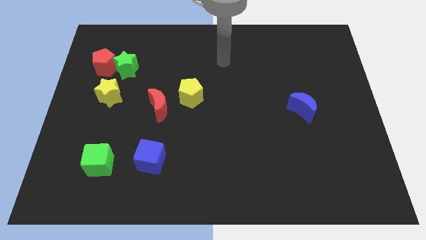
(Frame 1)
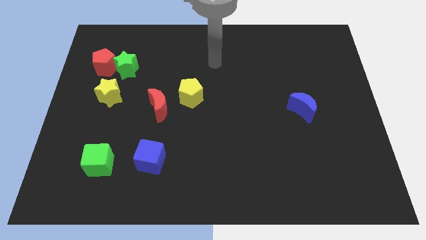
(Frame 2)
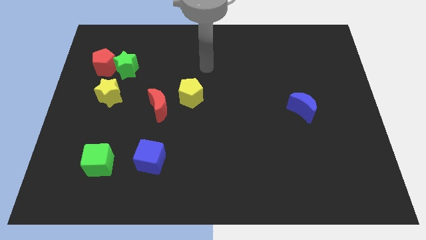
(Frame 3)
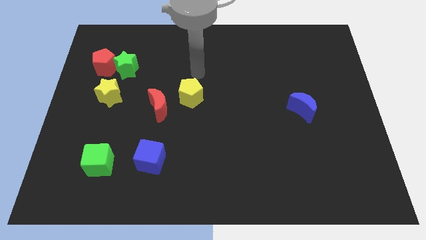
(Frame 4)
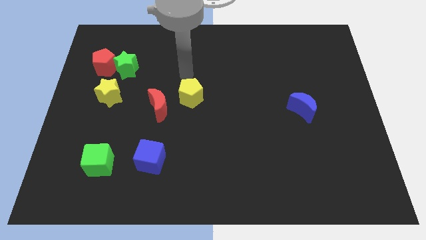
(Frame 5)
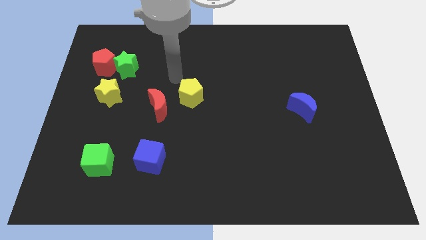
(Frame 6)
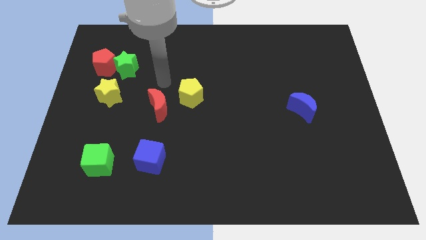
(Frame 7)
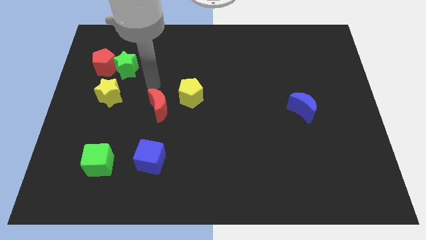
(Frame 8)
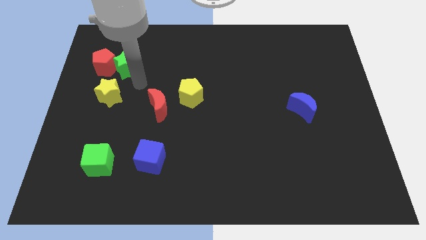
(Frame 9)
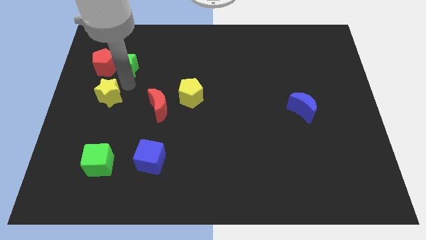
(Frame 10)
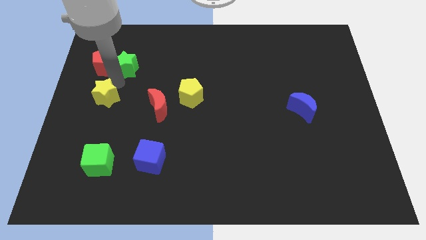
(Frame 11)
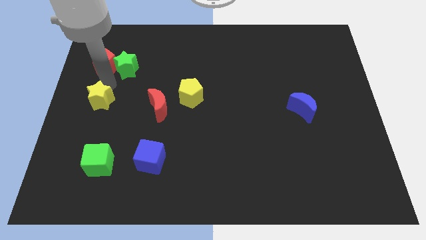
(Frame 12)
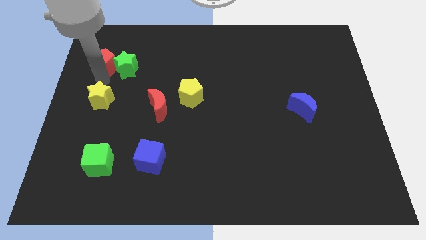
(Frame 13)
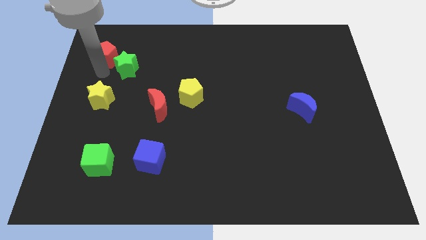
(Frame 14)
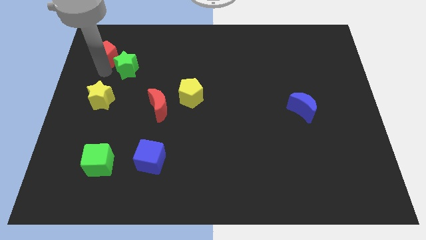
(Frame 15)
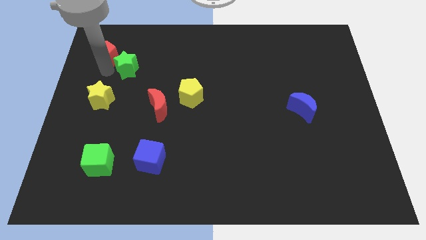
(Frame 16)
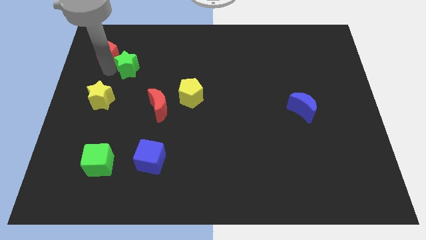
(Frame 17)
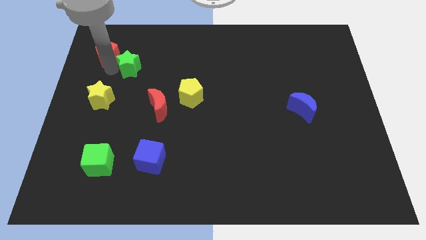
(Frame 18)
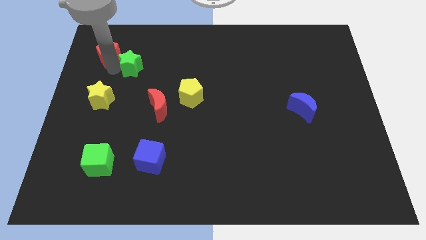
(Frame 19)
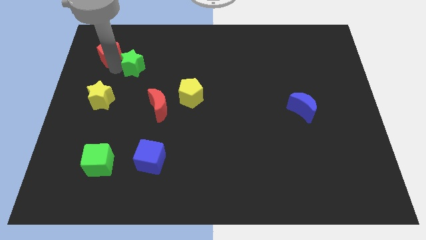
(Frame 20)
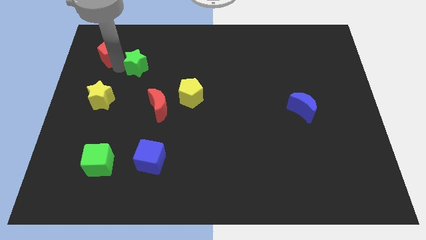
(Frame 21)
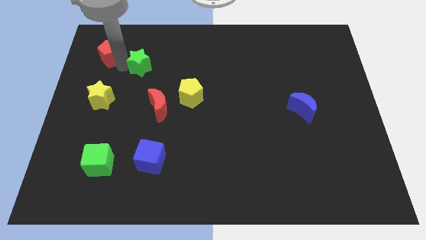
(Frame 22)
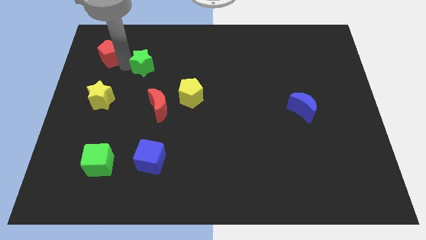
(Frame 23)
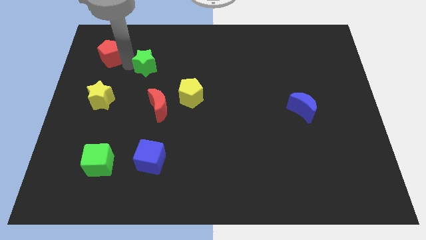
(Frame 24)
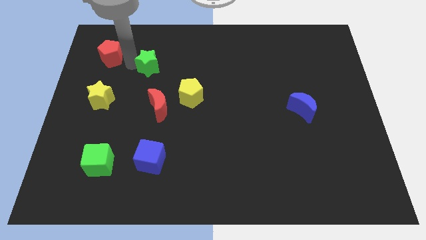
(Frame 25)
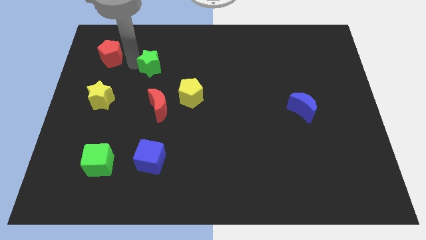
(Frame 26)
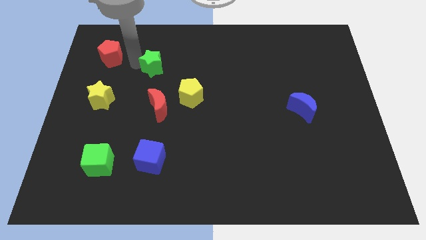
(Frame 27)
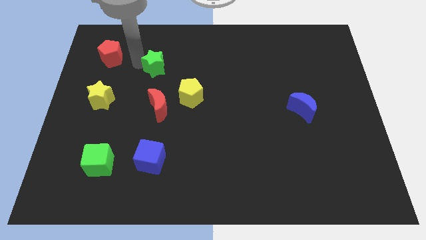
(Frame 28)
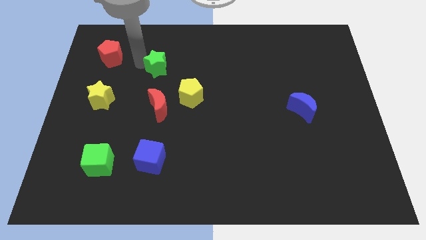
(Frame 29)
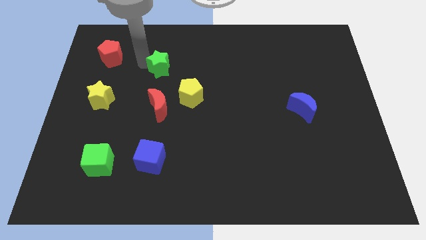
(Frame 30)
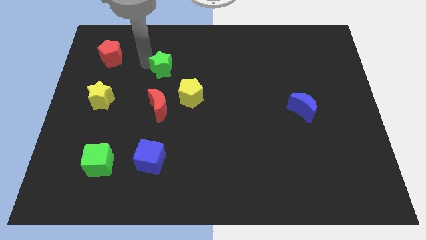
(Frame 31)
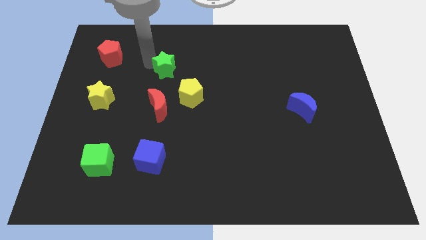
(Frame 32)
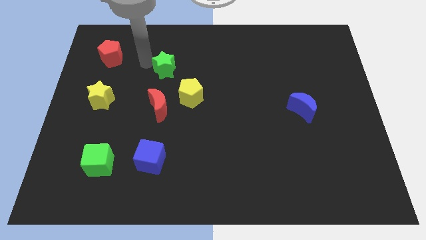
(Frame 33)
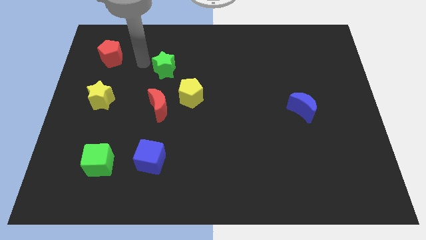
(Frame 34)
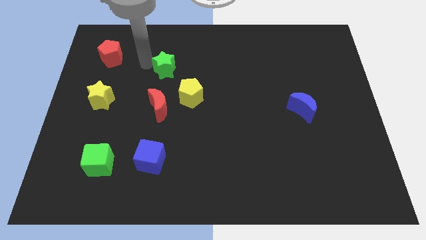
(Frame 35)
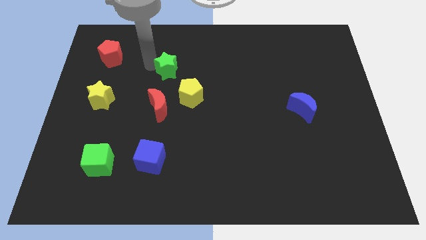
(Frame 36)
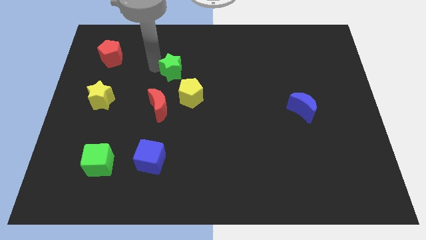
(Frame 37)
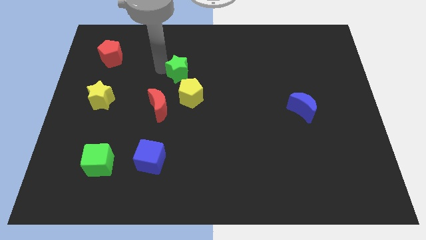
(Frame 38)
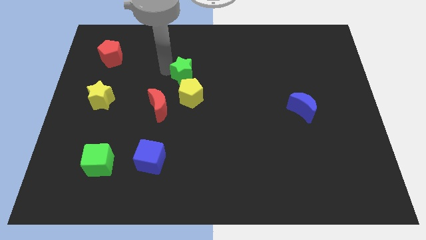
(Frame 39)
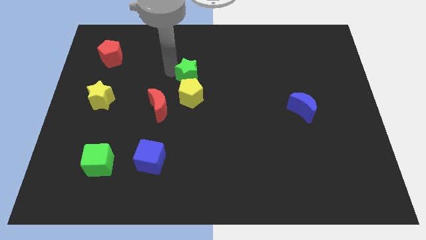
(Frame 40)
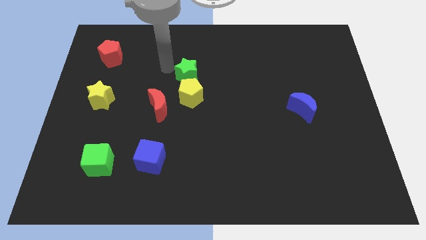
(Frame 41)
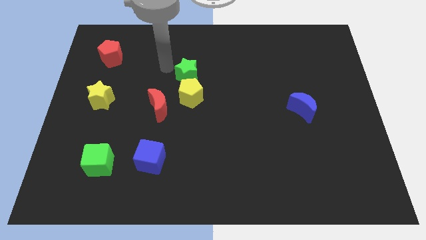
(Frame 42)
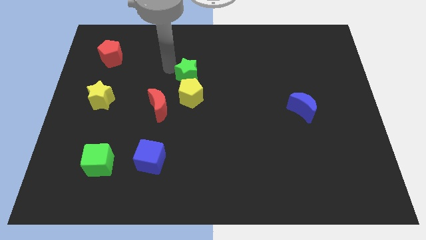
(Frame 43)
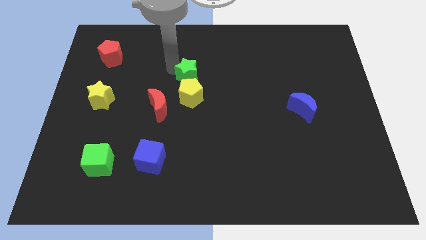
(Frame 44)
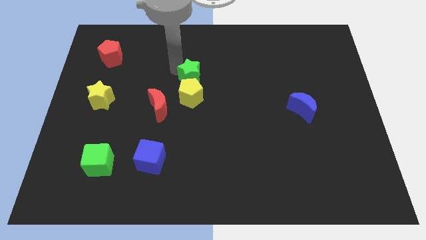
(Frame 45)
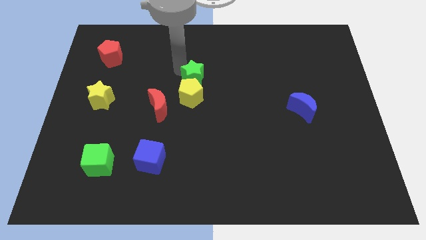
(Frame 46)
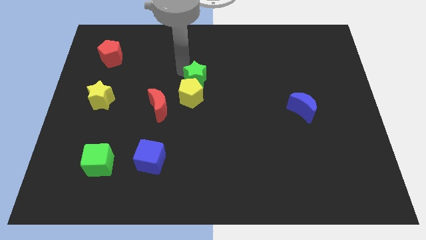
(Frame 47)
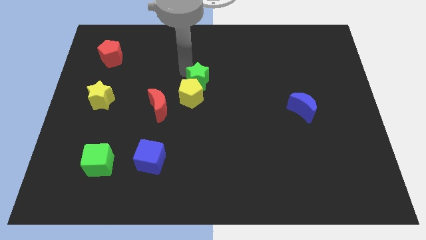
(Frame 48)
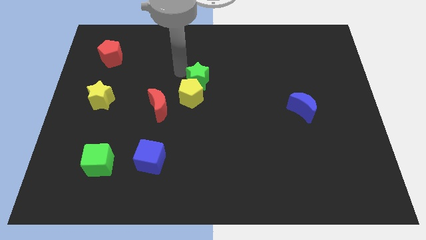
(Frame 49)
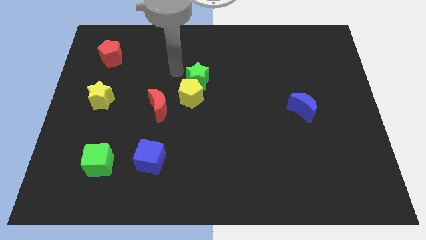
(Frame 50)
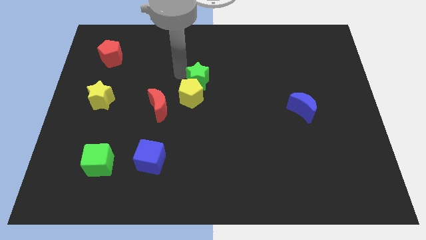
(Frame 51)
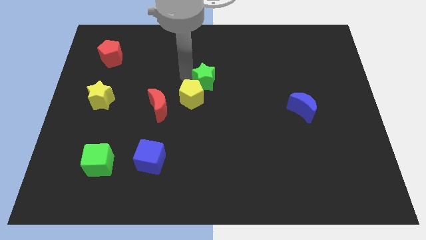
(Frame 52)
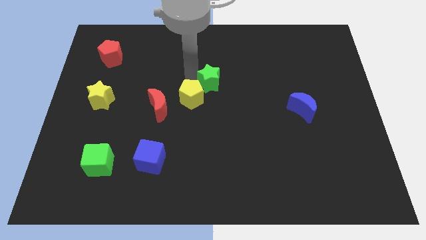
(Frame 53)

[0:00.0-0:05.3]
put the green star right of the yellow pentagon

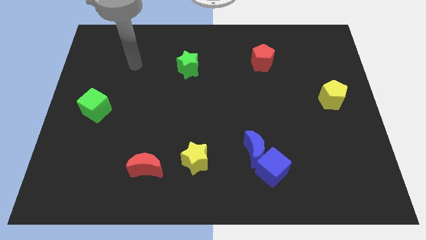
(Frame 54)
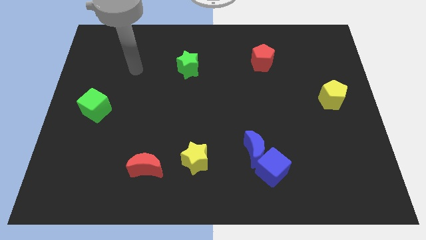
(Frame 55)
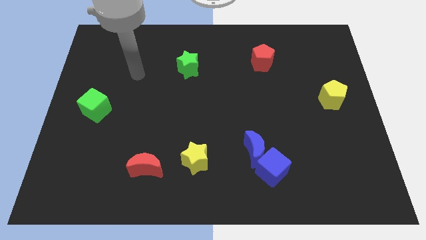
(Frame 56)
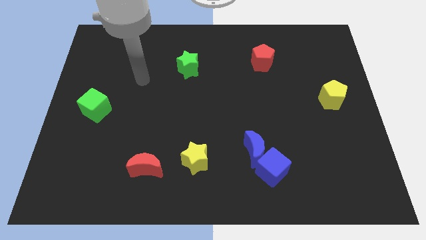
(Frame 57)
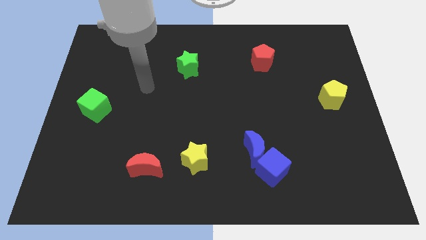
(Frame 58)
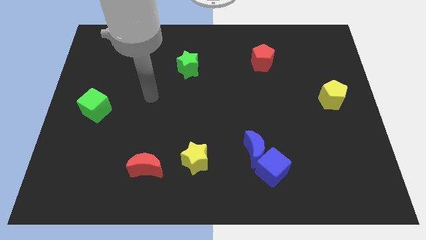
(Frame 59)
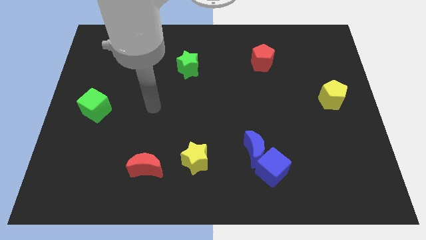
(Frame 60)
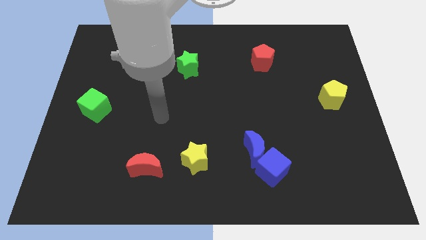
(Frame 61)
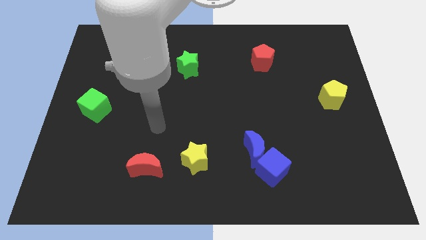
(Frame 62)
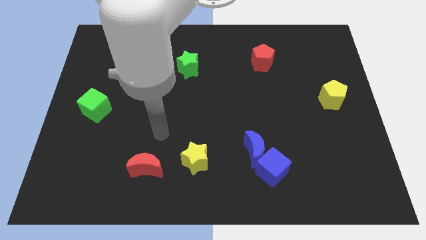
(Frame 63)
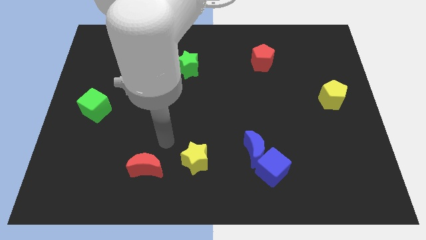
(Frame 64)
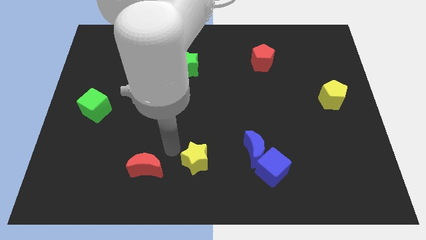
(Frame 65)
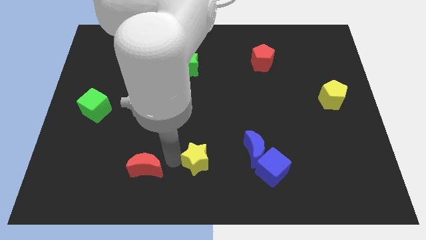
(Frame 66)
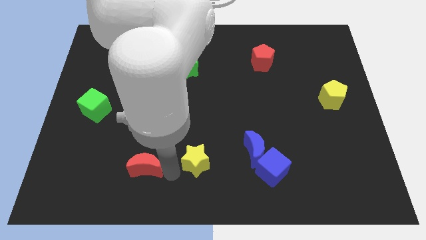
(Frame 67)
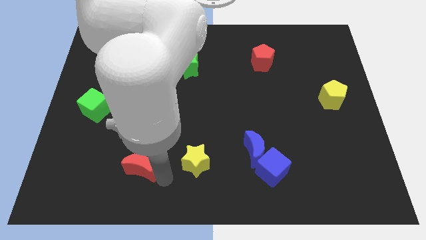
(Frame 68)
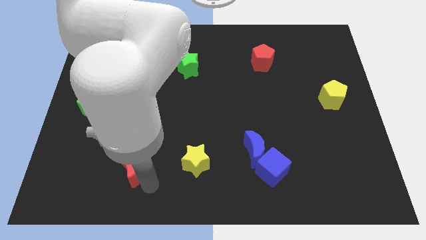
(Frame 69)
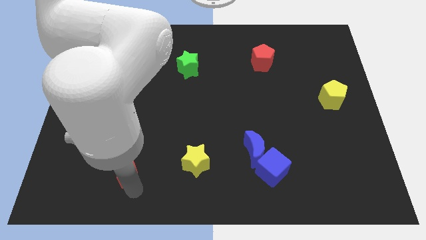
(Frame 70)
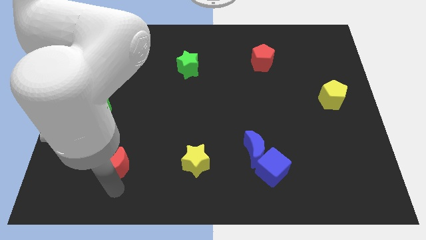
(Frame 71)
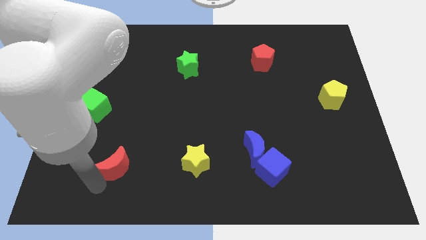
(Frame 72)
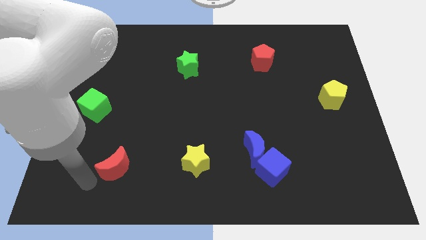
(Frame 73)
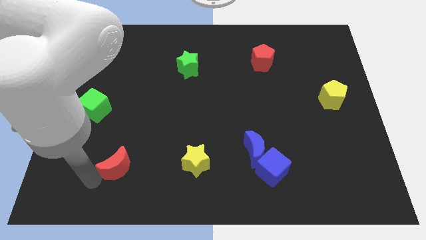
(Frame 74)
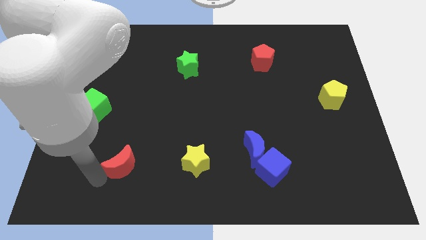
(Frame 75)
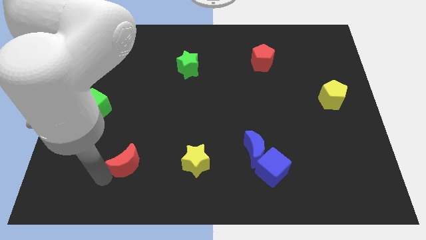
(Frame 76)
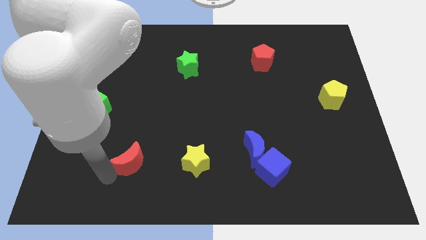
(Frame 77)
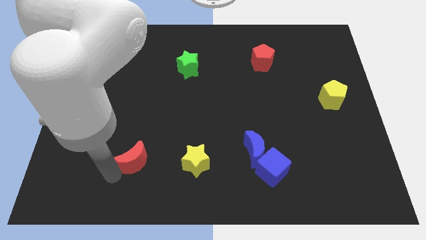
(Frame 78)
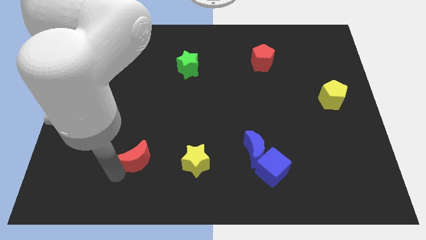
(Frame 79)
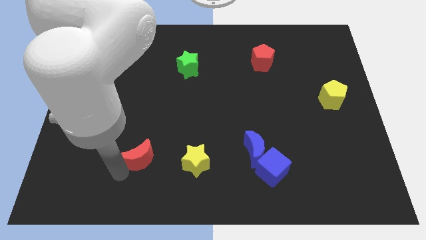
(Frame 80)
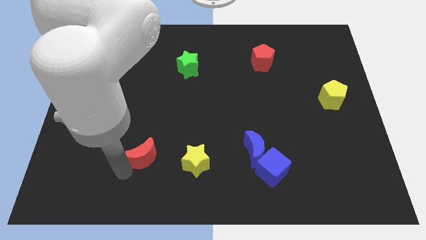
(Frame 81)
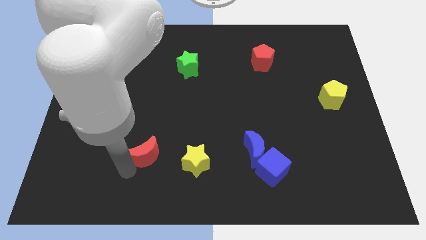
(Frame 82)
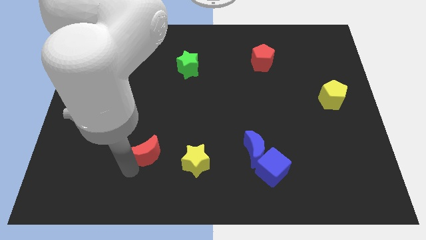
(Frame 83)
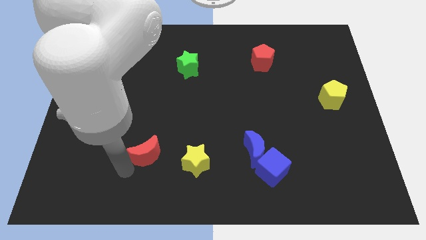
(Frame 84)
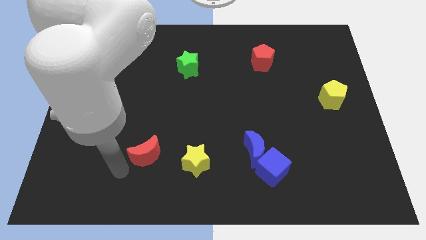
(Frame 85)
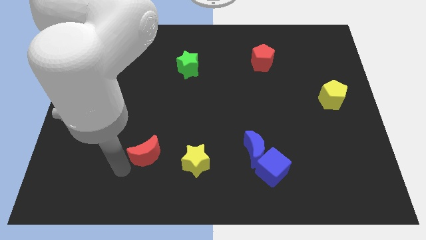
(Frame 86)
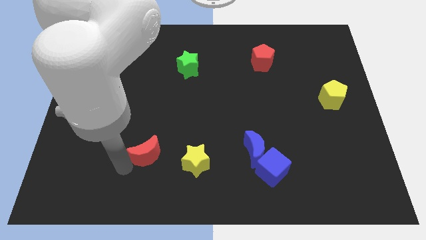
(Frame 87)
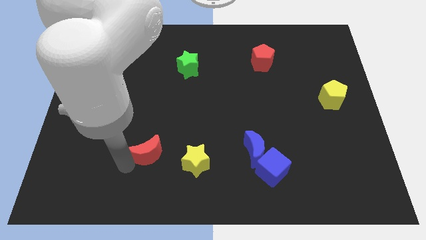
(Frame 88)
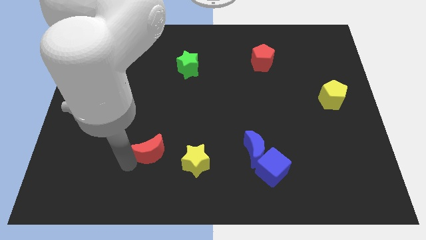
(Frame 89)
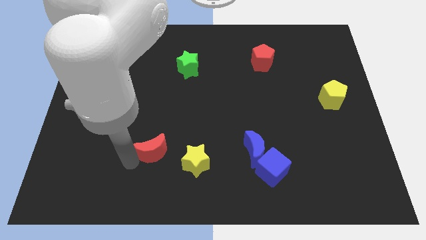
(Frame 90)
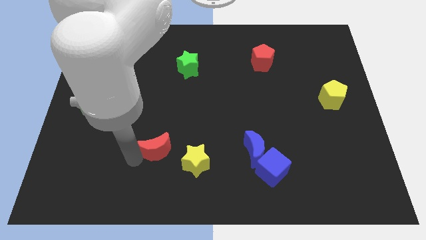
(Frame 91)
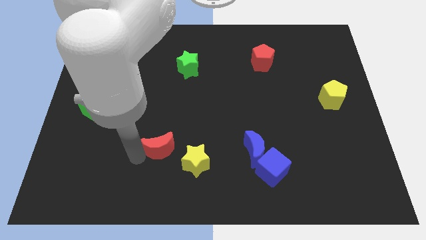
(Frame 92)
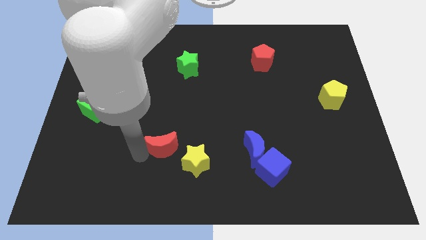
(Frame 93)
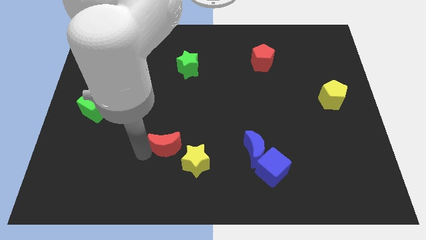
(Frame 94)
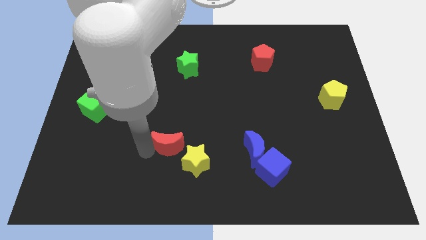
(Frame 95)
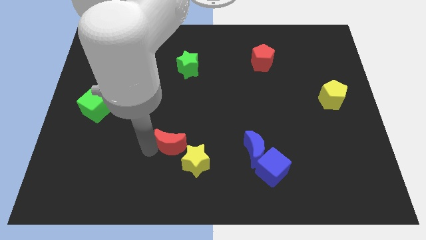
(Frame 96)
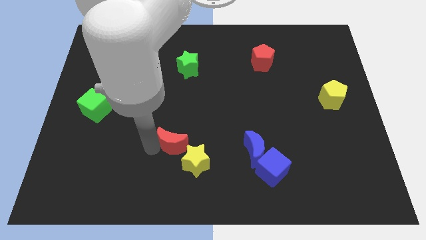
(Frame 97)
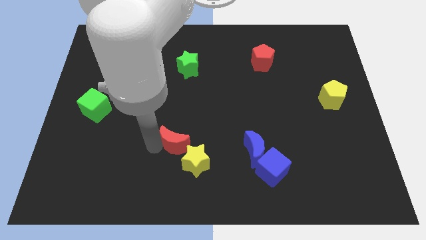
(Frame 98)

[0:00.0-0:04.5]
put the red moon to the top side of the yellow star
